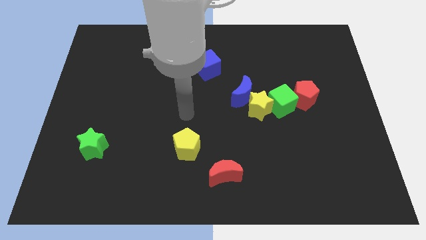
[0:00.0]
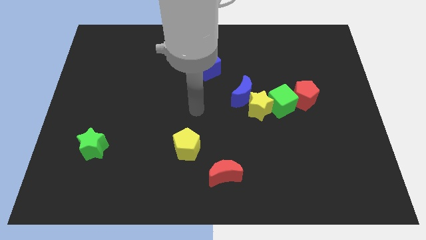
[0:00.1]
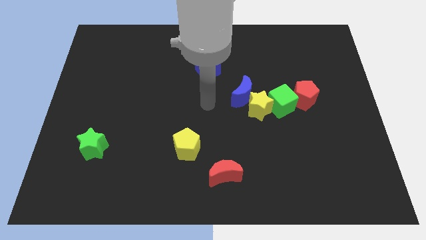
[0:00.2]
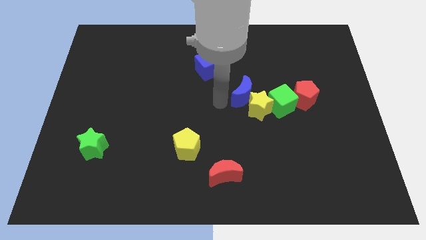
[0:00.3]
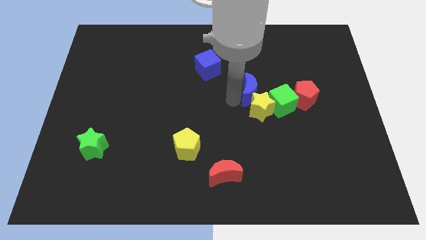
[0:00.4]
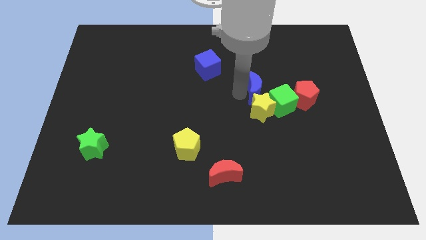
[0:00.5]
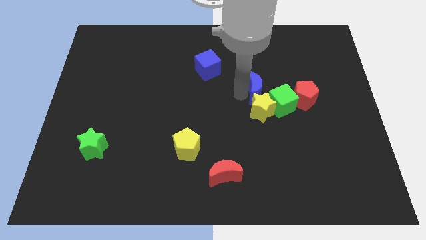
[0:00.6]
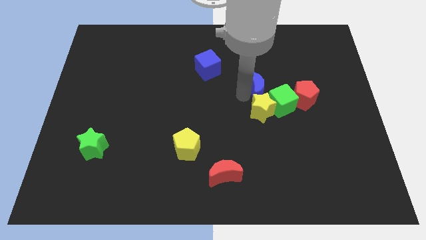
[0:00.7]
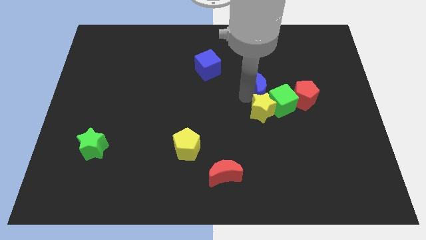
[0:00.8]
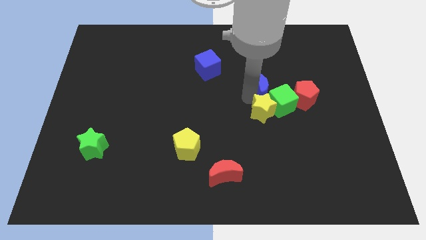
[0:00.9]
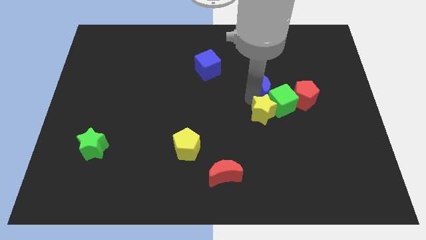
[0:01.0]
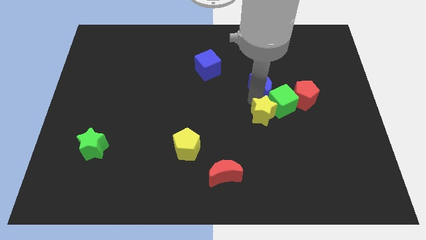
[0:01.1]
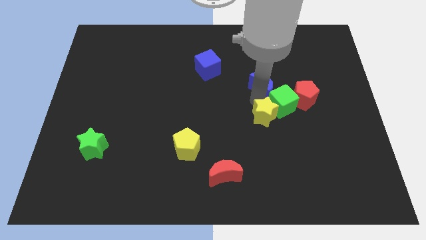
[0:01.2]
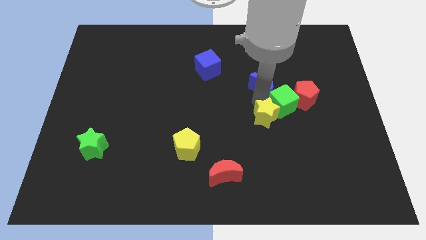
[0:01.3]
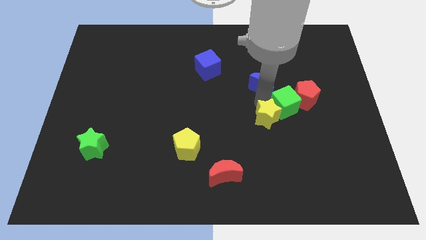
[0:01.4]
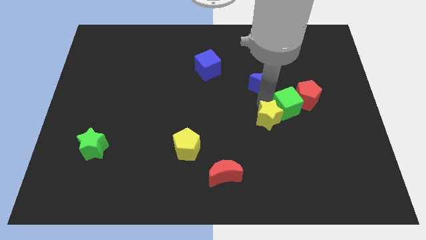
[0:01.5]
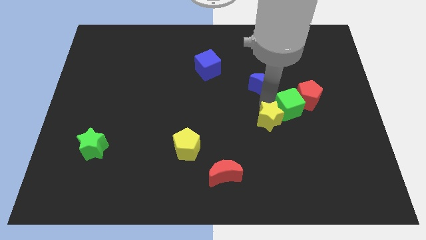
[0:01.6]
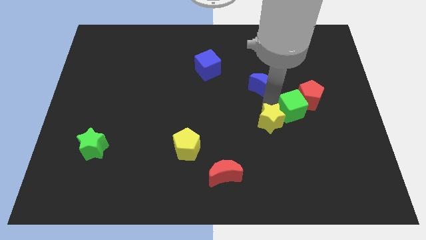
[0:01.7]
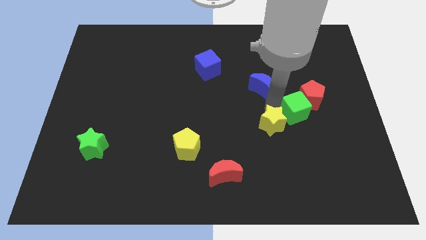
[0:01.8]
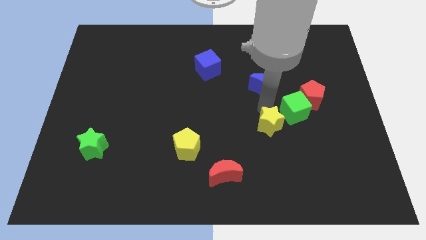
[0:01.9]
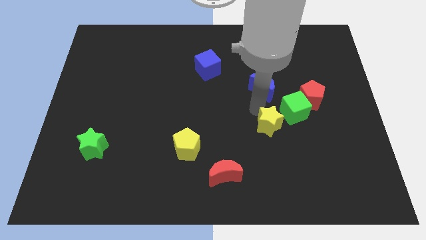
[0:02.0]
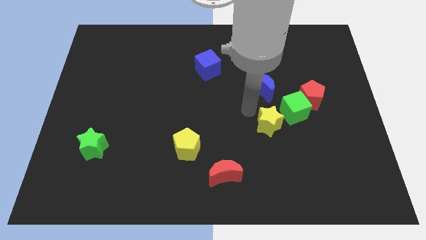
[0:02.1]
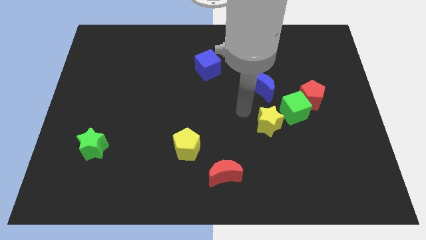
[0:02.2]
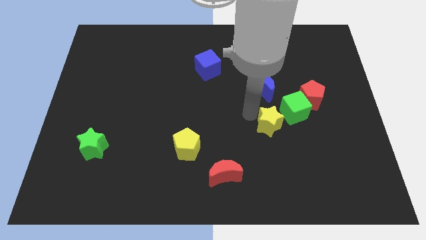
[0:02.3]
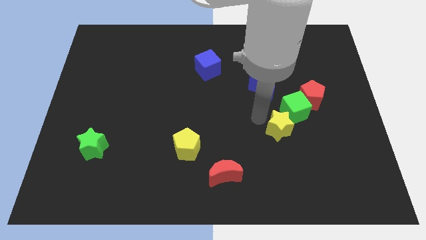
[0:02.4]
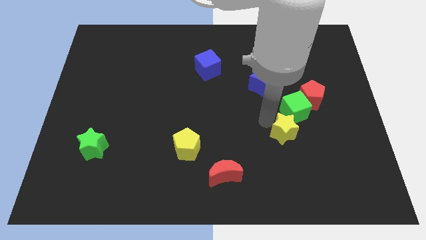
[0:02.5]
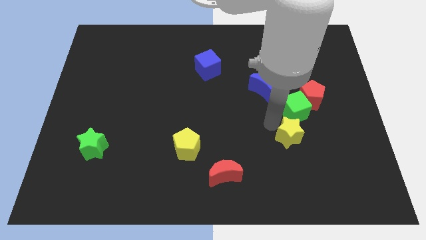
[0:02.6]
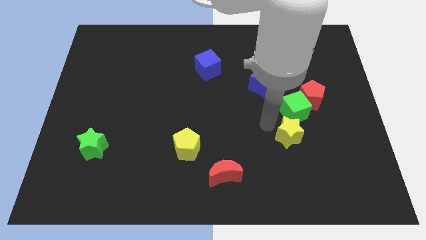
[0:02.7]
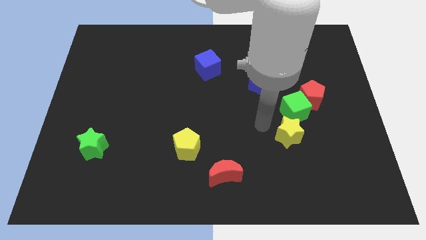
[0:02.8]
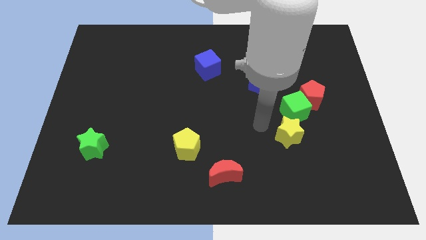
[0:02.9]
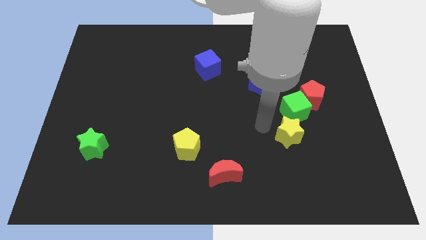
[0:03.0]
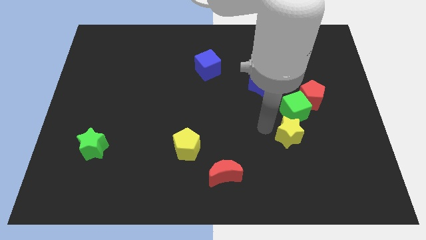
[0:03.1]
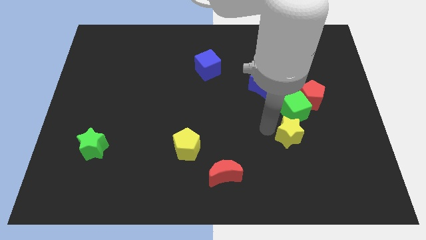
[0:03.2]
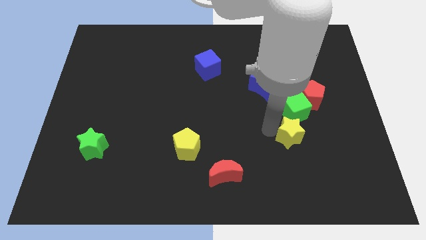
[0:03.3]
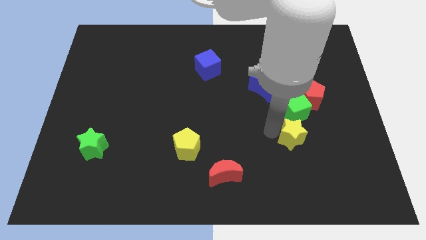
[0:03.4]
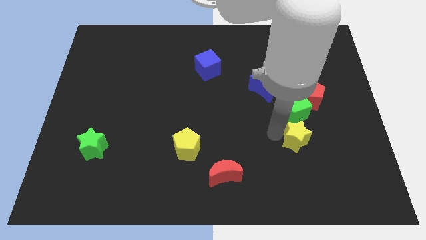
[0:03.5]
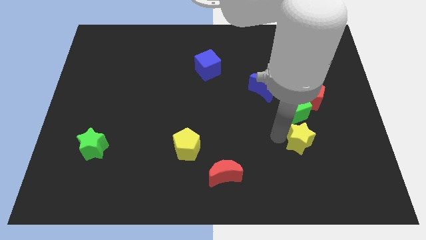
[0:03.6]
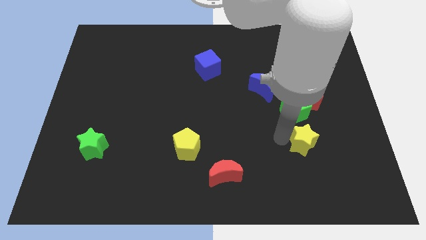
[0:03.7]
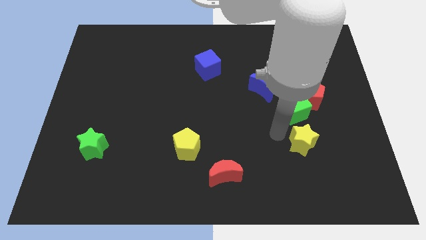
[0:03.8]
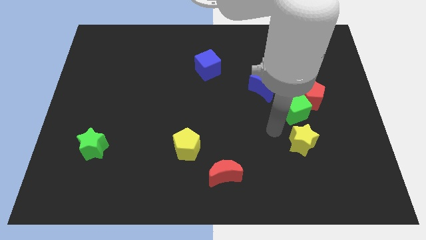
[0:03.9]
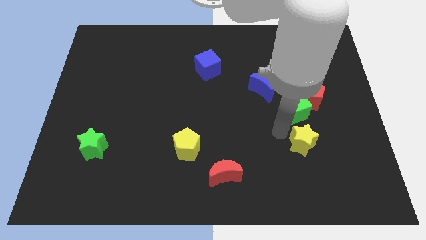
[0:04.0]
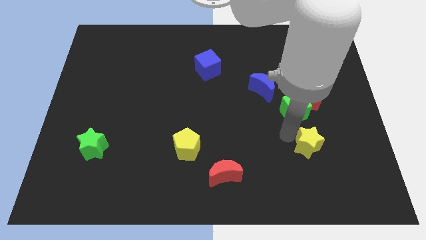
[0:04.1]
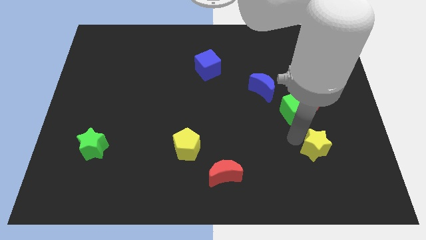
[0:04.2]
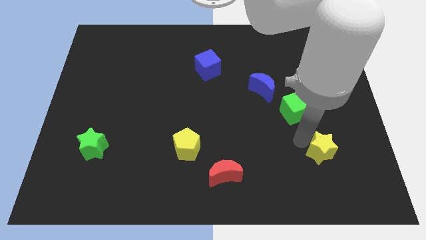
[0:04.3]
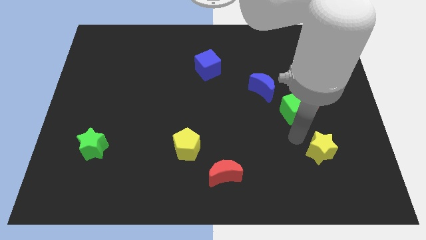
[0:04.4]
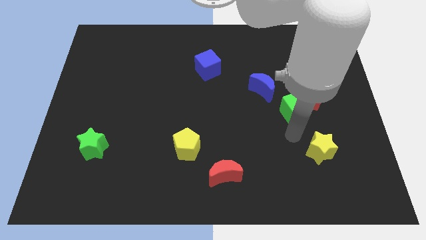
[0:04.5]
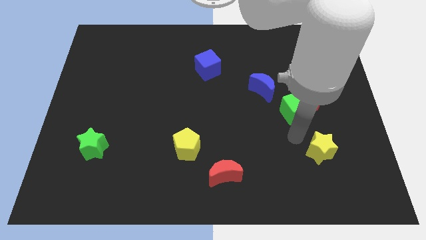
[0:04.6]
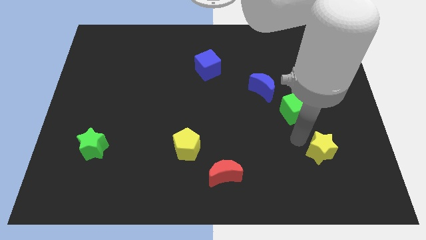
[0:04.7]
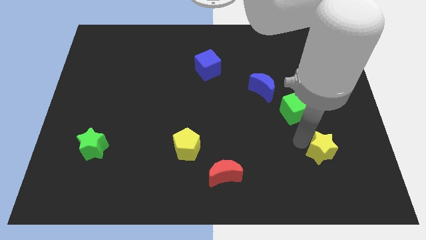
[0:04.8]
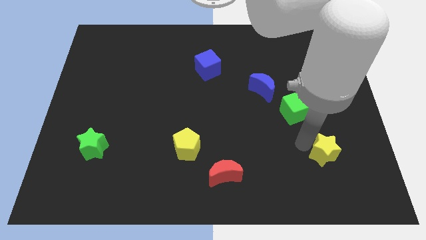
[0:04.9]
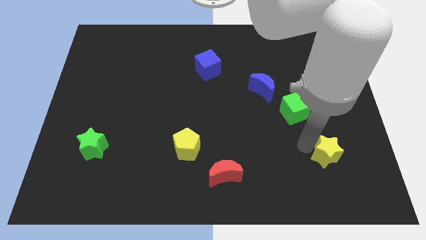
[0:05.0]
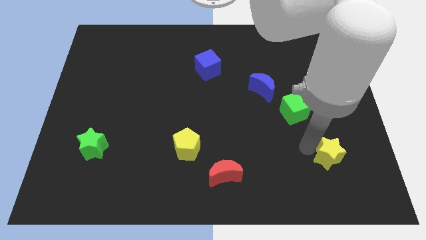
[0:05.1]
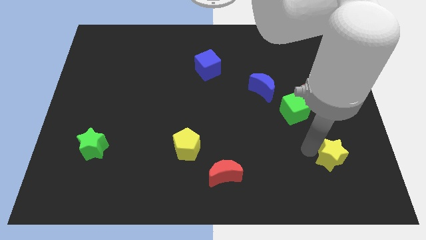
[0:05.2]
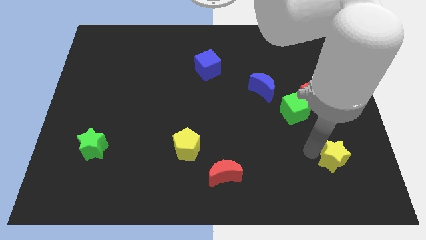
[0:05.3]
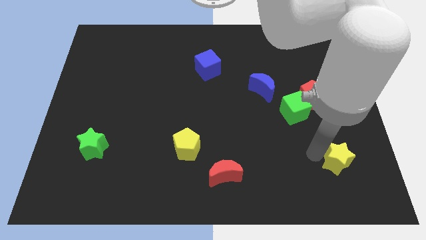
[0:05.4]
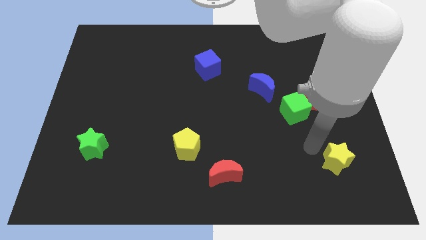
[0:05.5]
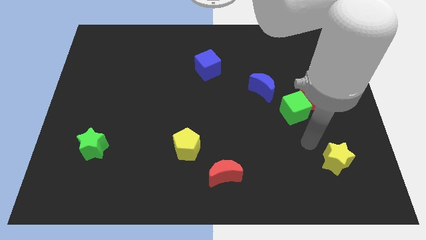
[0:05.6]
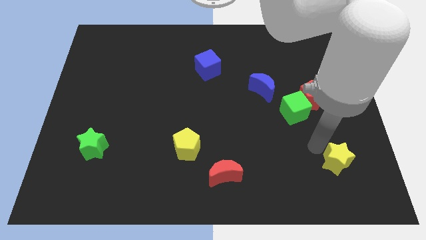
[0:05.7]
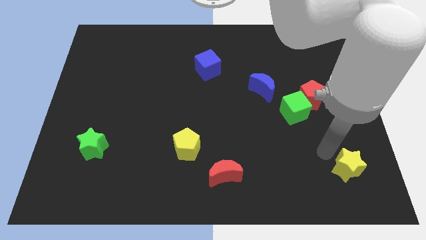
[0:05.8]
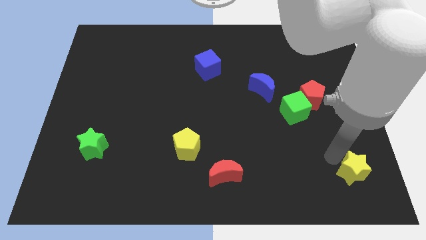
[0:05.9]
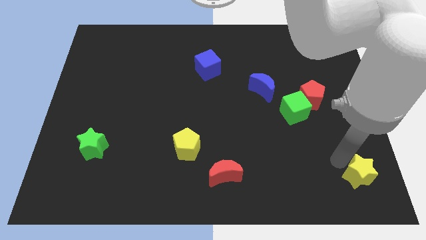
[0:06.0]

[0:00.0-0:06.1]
slide the yellow star to the bottom right

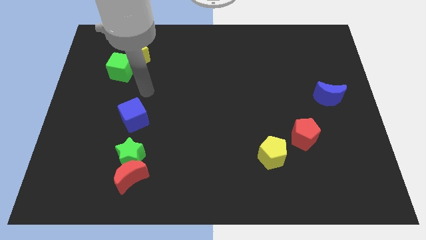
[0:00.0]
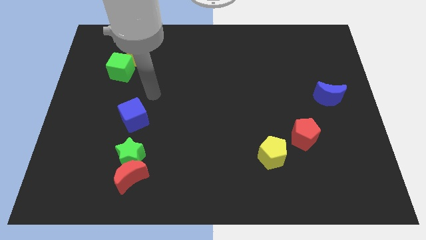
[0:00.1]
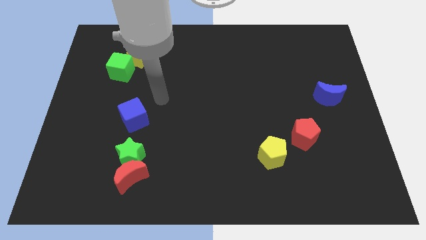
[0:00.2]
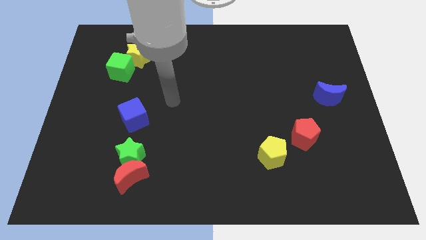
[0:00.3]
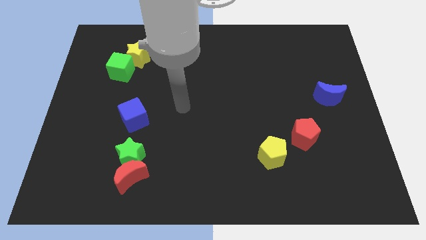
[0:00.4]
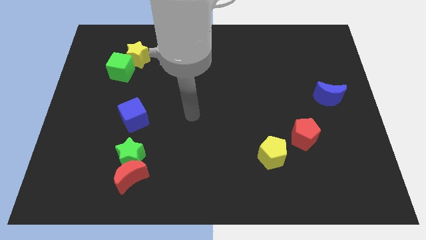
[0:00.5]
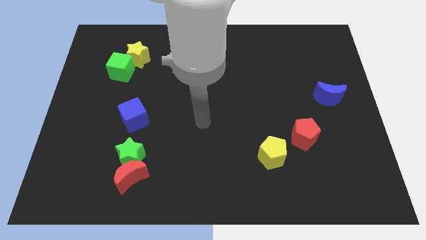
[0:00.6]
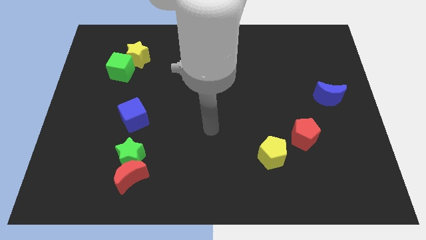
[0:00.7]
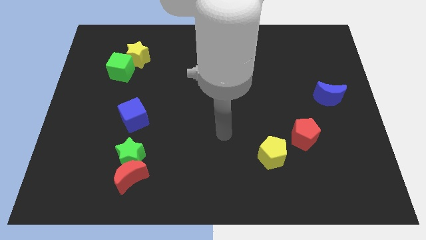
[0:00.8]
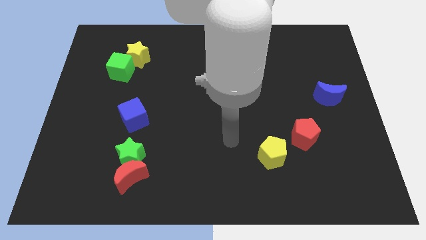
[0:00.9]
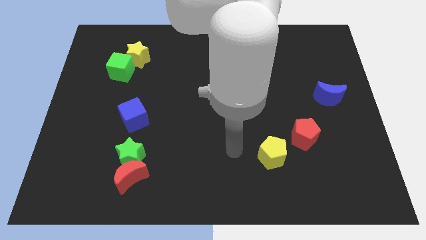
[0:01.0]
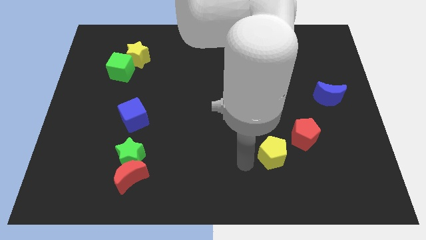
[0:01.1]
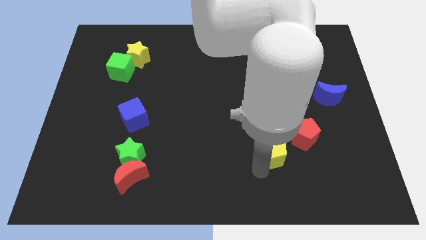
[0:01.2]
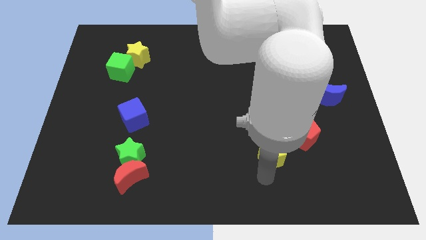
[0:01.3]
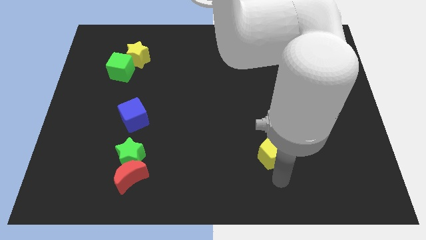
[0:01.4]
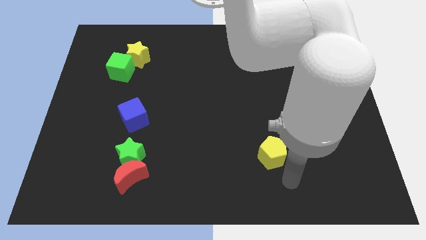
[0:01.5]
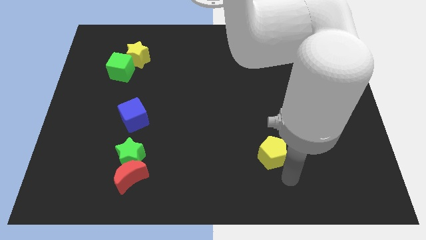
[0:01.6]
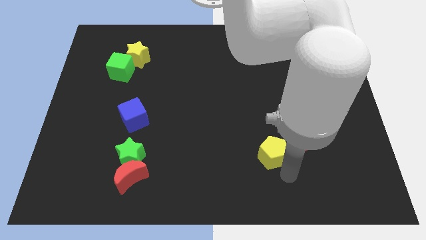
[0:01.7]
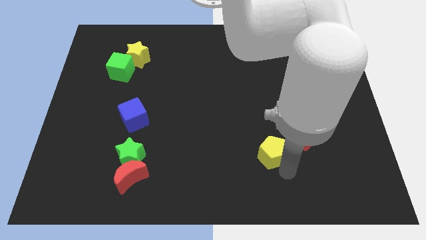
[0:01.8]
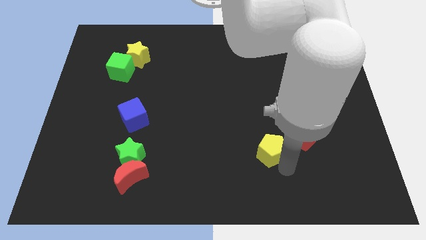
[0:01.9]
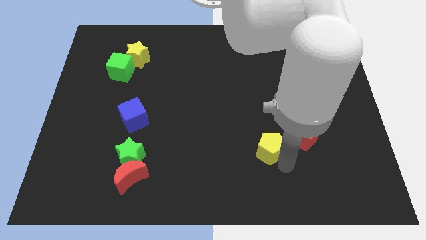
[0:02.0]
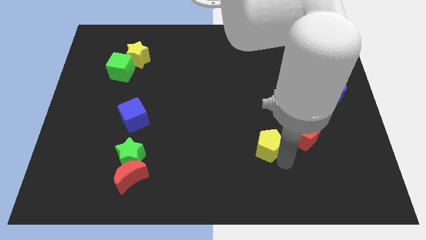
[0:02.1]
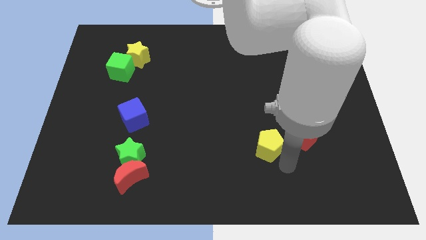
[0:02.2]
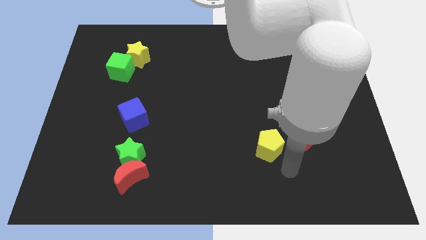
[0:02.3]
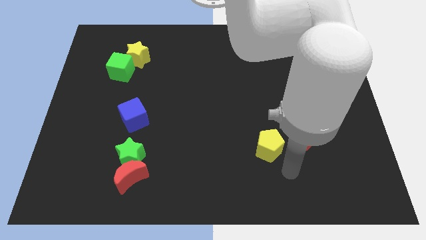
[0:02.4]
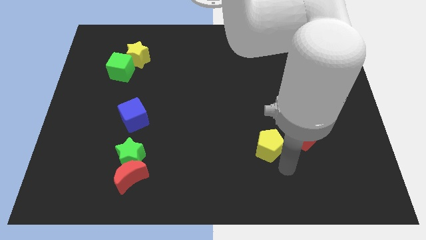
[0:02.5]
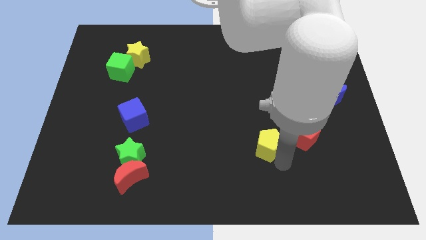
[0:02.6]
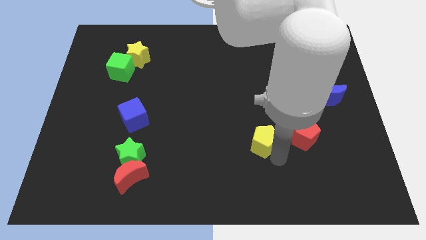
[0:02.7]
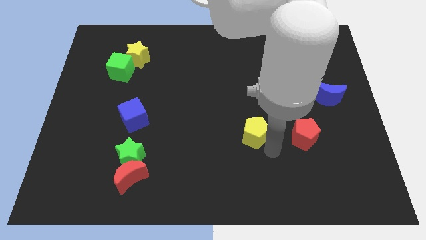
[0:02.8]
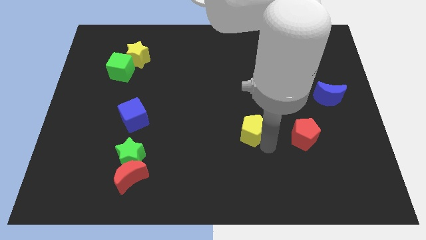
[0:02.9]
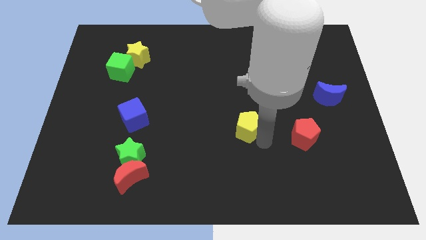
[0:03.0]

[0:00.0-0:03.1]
slide the yellow pentagon to the center
